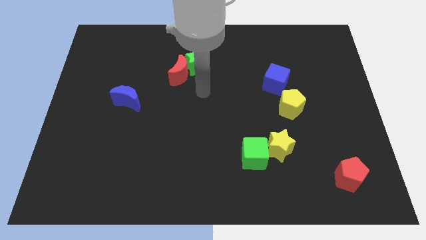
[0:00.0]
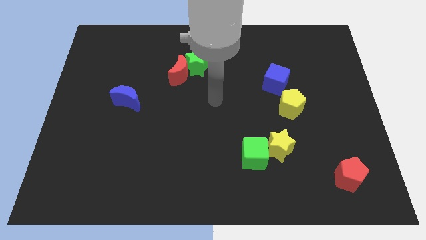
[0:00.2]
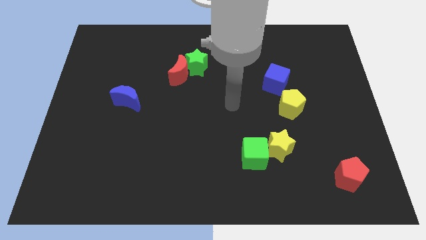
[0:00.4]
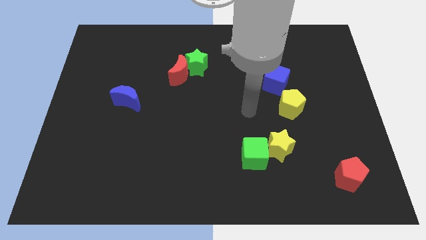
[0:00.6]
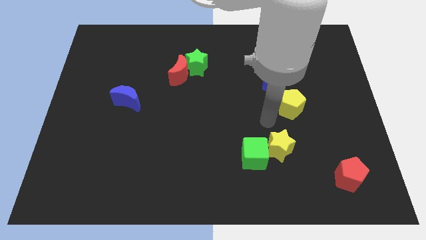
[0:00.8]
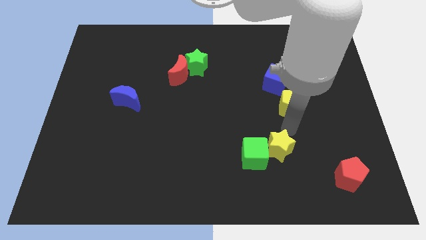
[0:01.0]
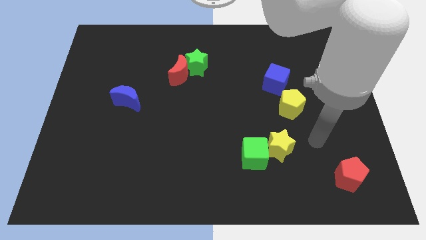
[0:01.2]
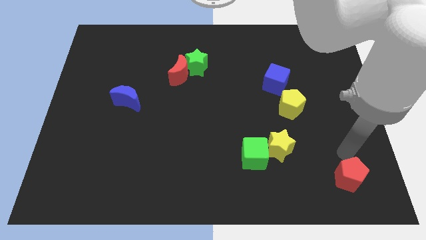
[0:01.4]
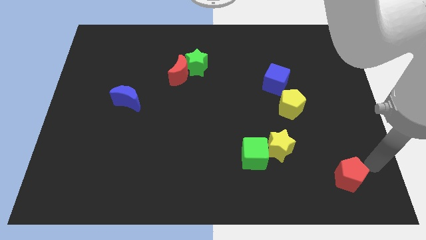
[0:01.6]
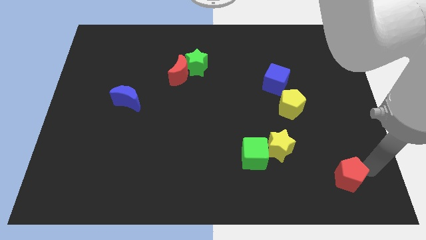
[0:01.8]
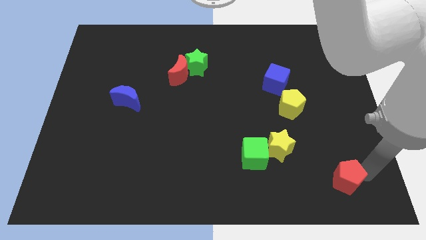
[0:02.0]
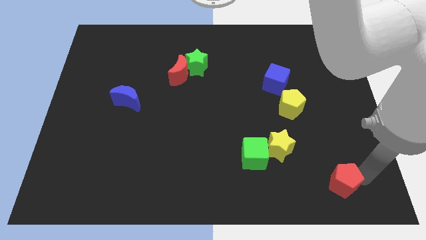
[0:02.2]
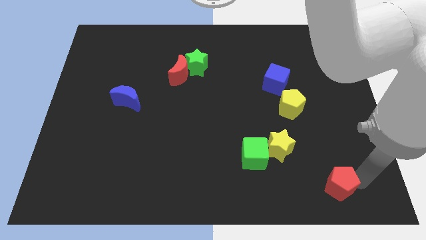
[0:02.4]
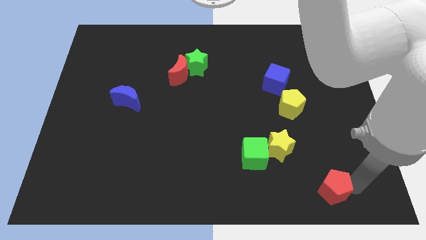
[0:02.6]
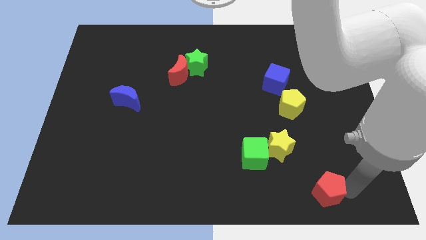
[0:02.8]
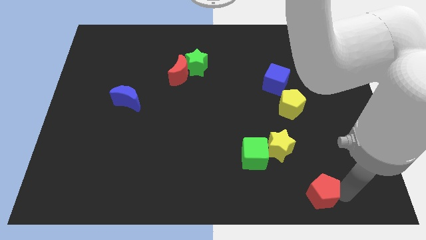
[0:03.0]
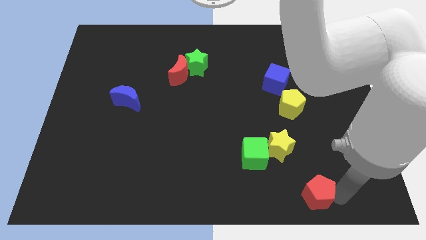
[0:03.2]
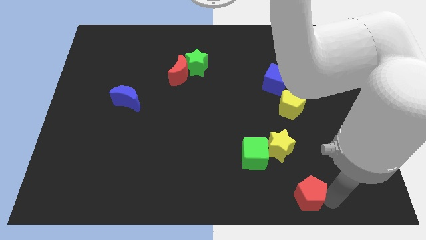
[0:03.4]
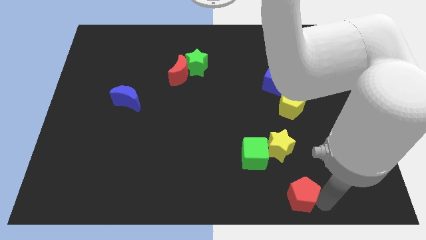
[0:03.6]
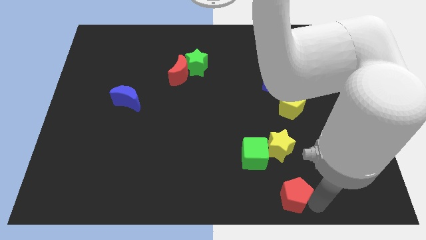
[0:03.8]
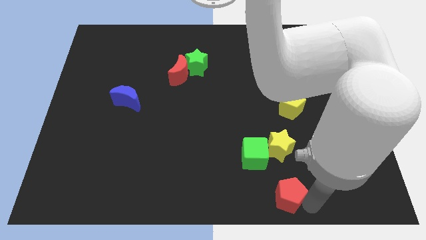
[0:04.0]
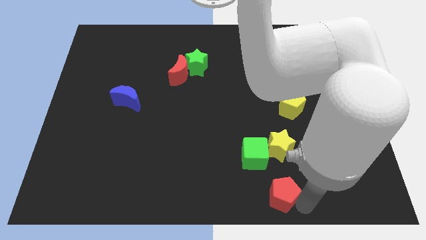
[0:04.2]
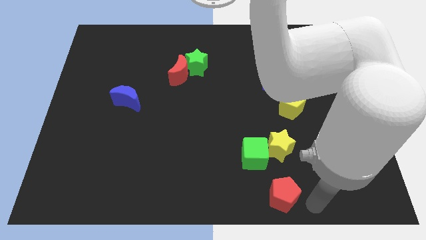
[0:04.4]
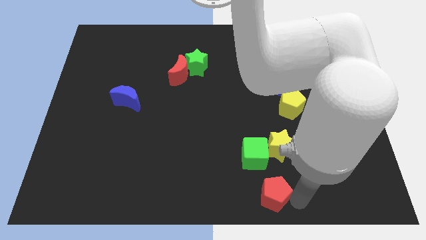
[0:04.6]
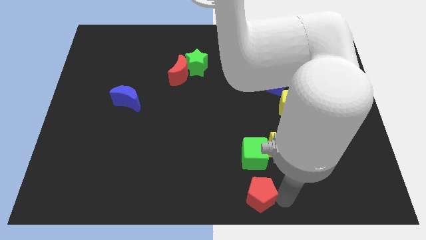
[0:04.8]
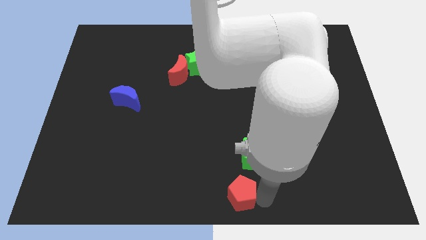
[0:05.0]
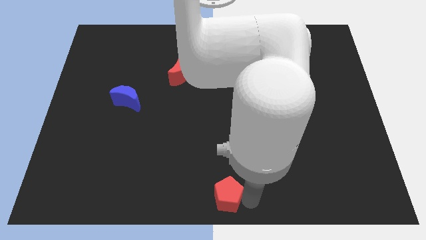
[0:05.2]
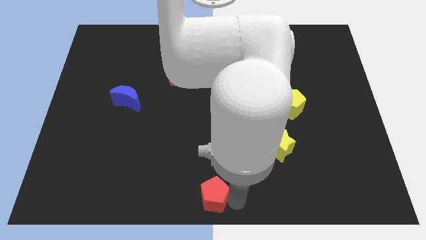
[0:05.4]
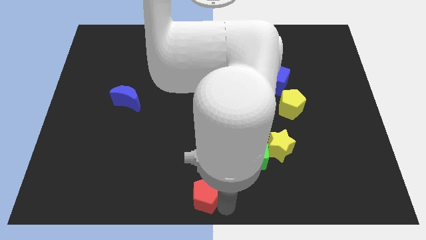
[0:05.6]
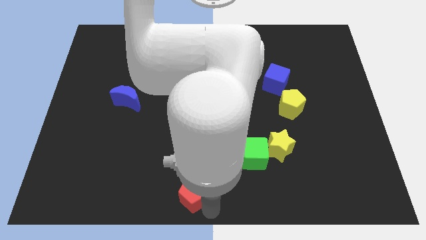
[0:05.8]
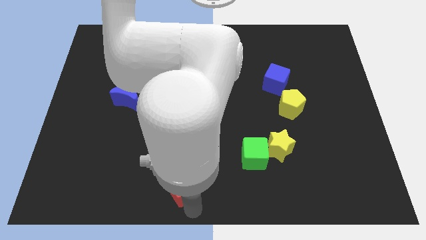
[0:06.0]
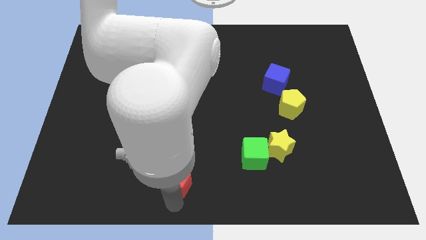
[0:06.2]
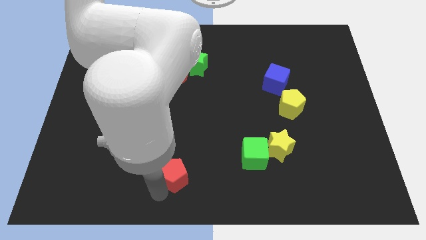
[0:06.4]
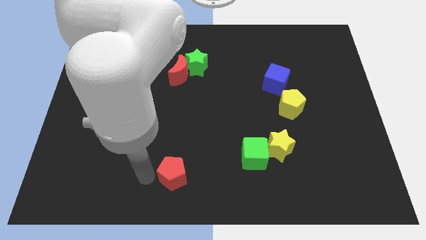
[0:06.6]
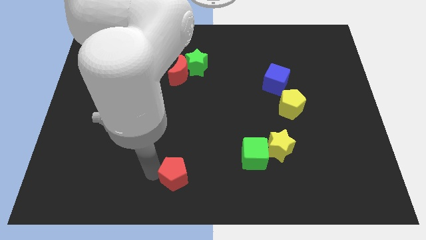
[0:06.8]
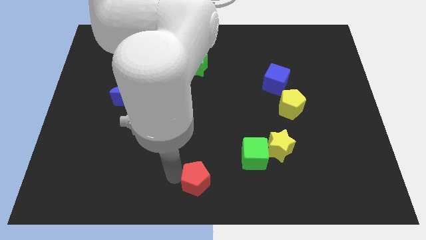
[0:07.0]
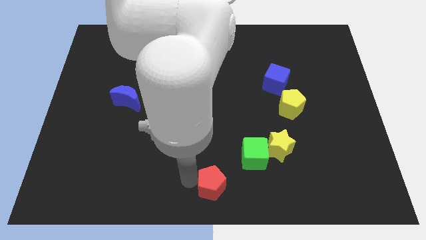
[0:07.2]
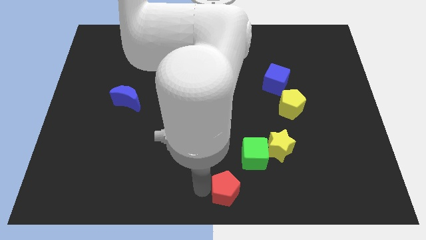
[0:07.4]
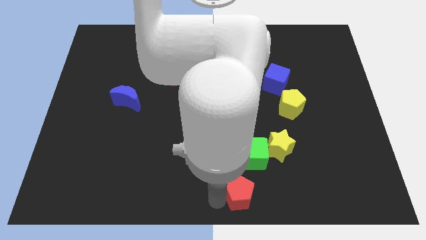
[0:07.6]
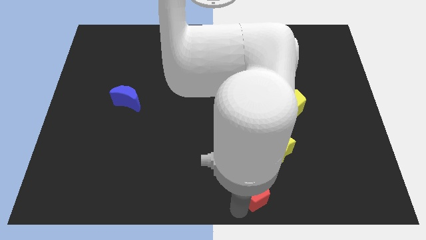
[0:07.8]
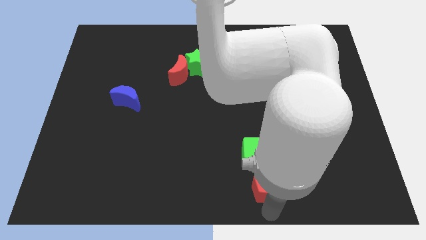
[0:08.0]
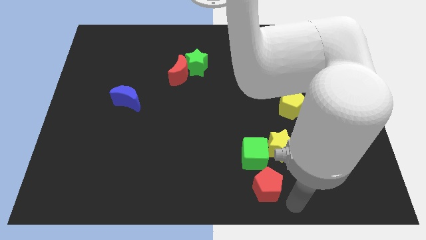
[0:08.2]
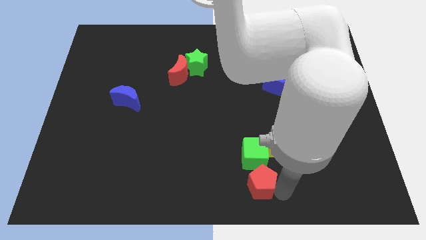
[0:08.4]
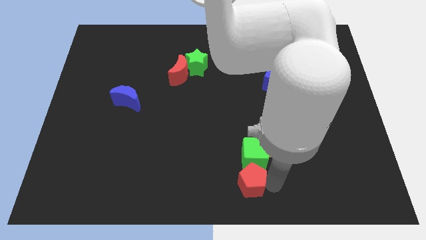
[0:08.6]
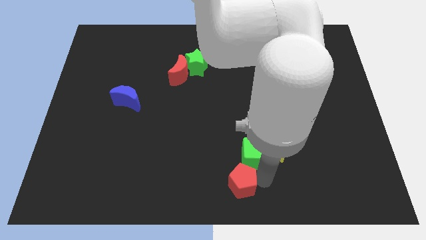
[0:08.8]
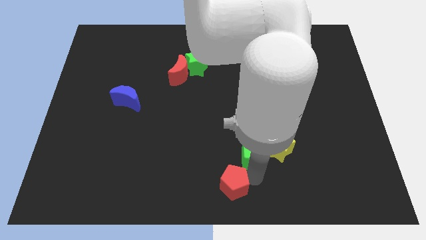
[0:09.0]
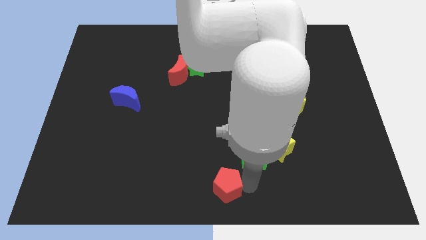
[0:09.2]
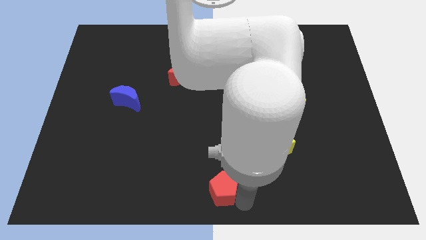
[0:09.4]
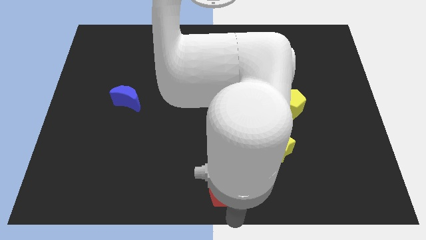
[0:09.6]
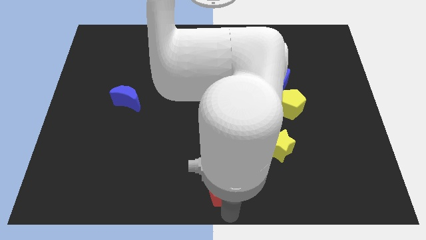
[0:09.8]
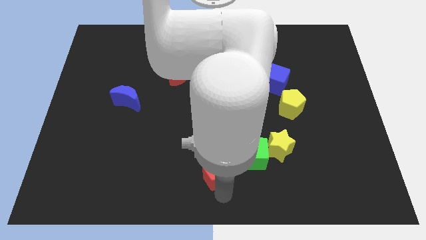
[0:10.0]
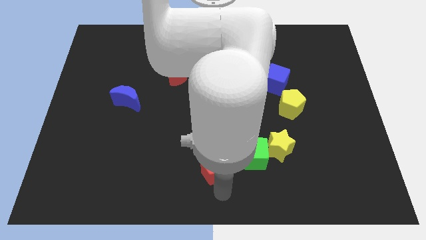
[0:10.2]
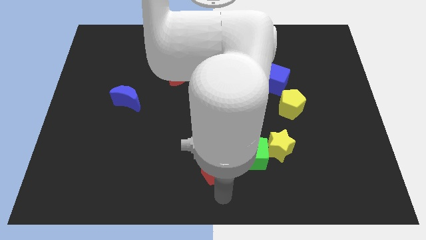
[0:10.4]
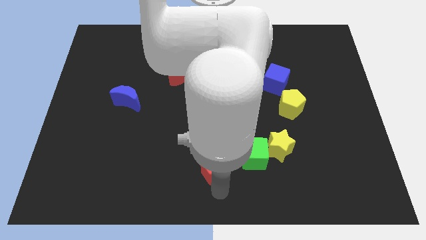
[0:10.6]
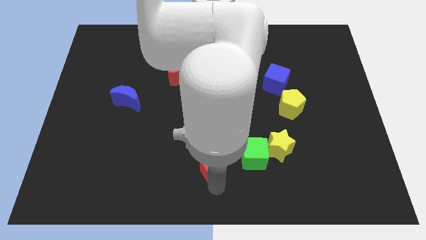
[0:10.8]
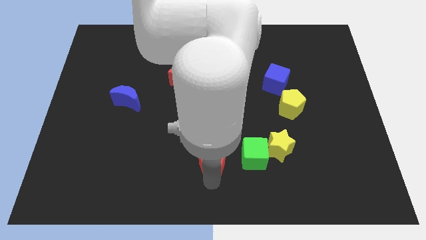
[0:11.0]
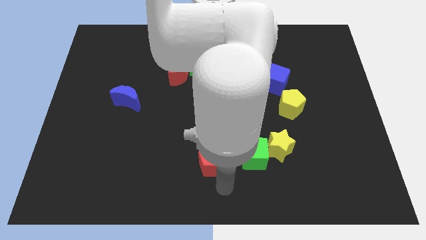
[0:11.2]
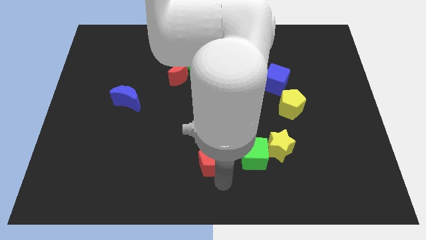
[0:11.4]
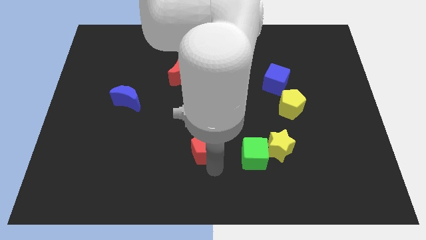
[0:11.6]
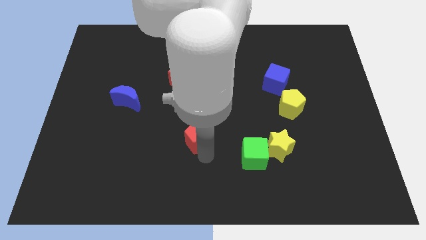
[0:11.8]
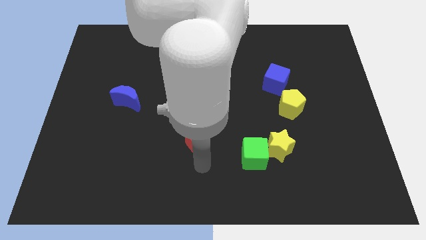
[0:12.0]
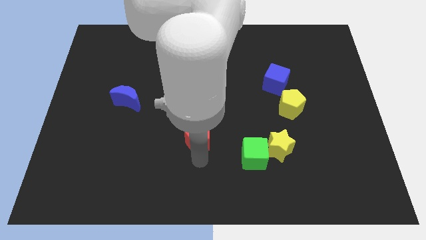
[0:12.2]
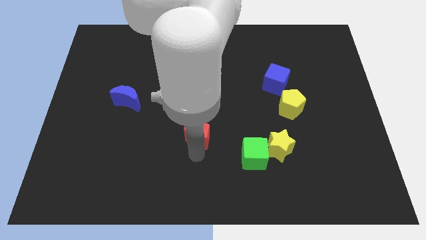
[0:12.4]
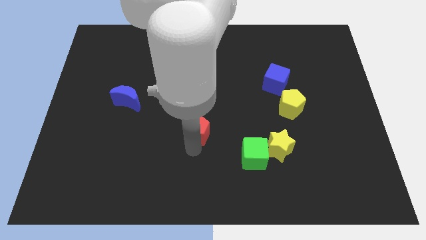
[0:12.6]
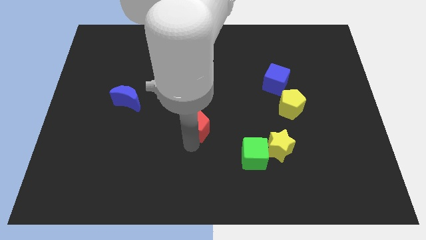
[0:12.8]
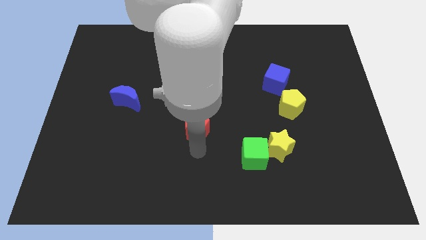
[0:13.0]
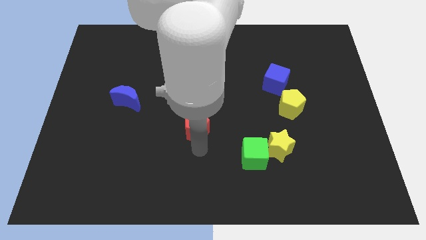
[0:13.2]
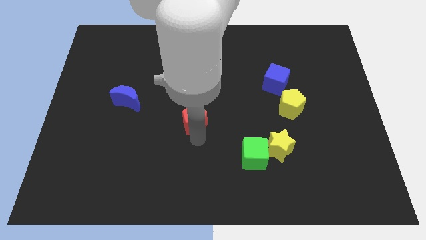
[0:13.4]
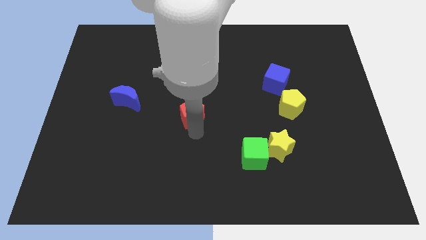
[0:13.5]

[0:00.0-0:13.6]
push the red pentagon to the bottom of the green star
